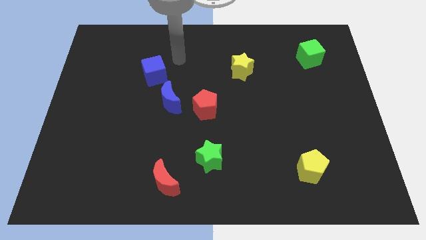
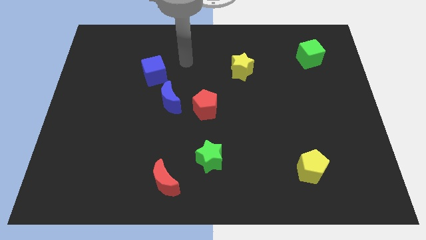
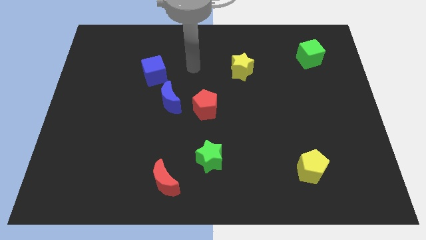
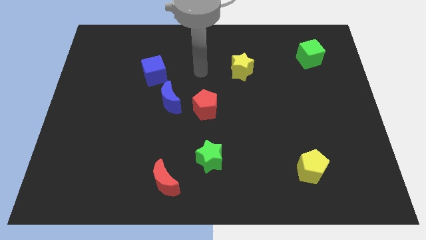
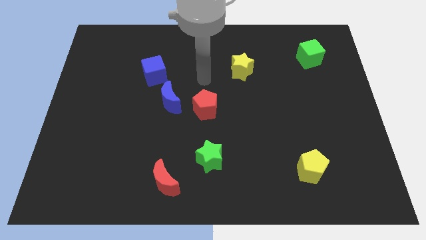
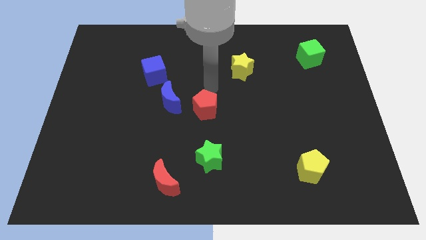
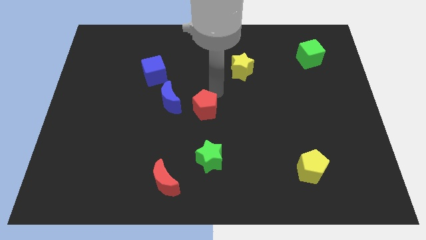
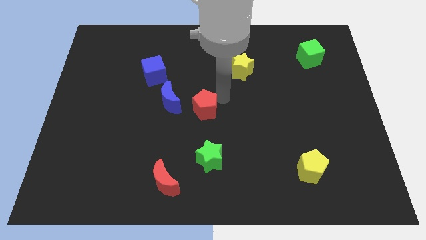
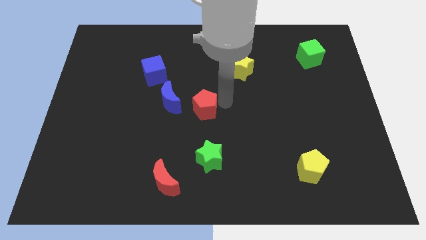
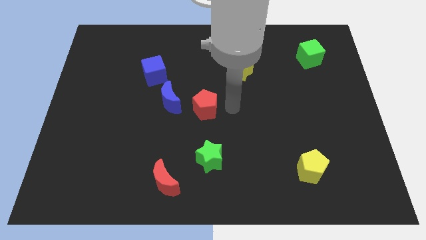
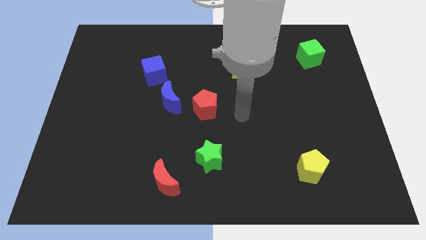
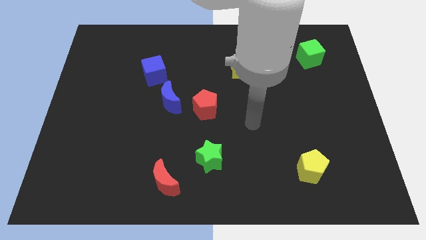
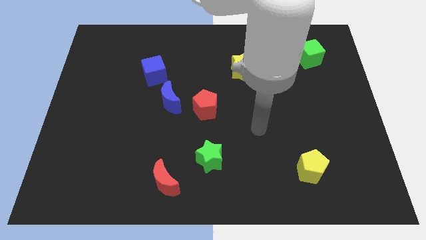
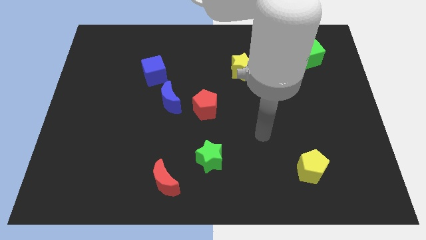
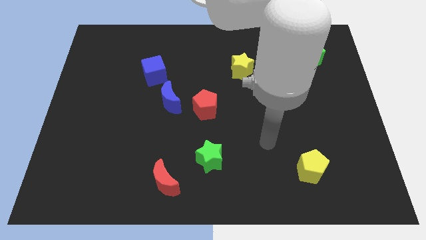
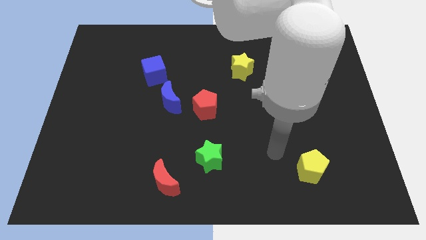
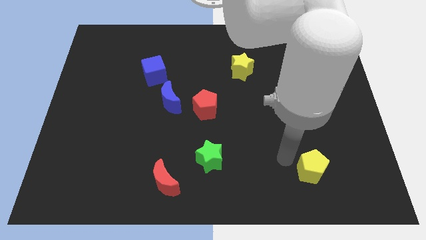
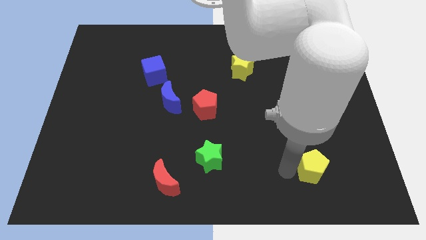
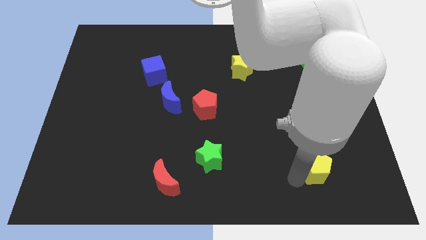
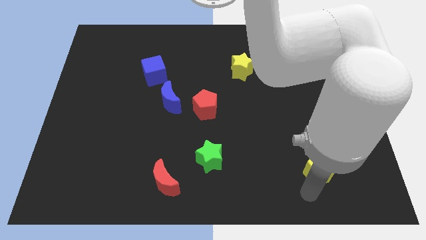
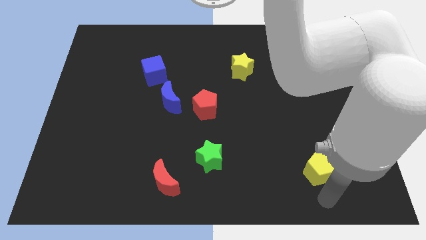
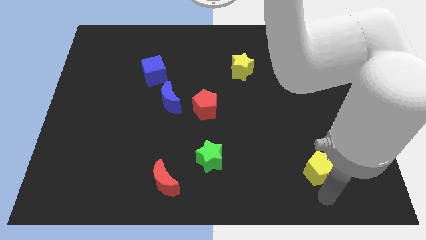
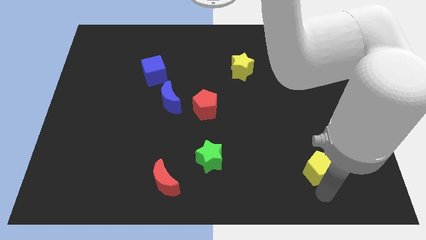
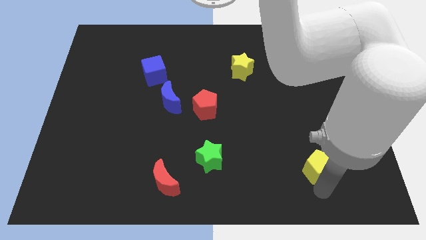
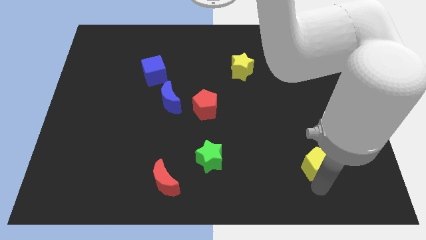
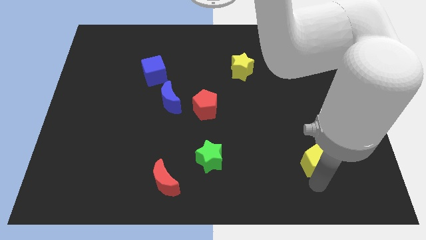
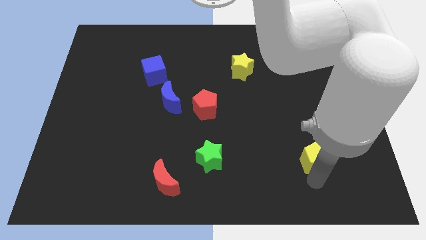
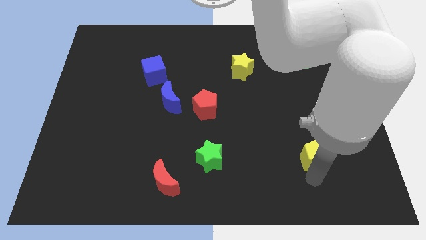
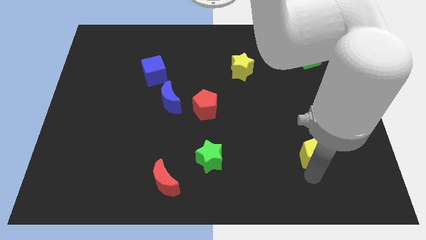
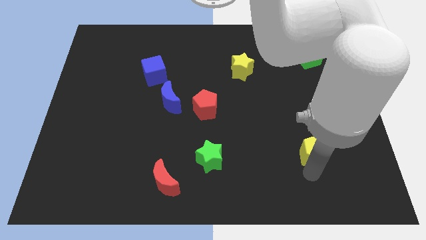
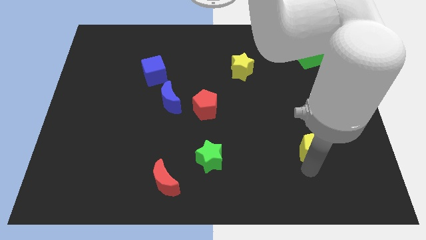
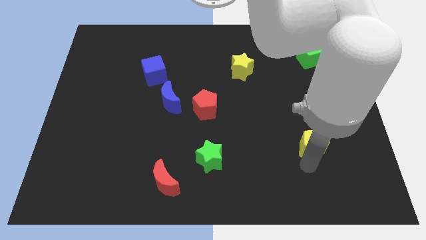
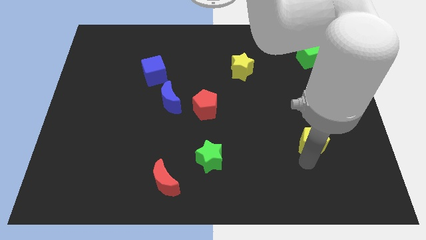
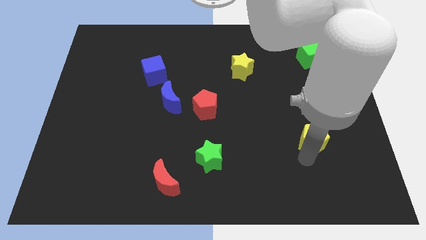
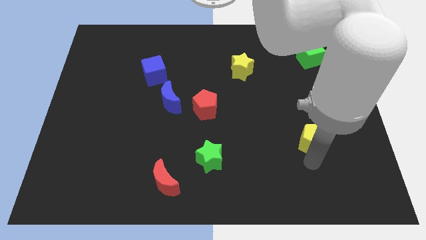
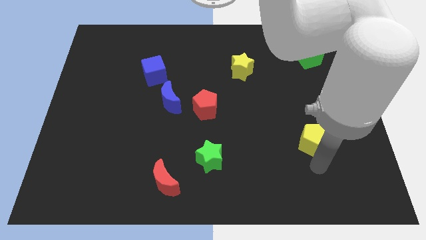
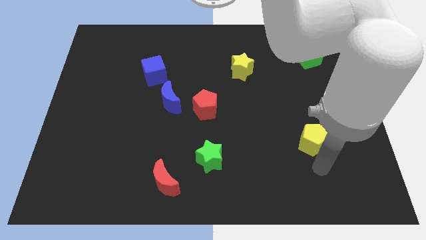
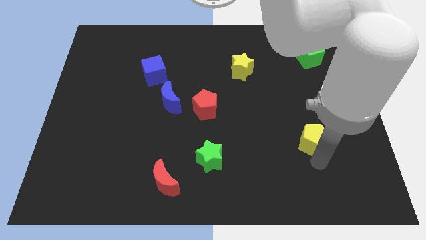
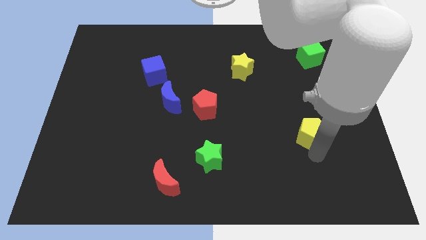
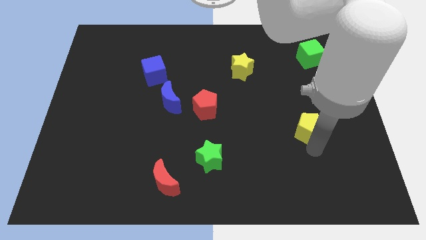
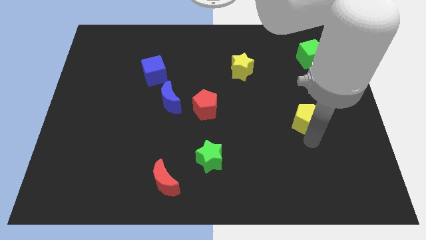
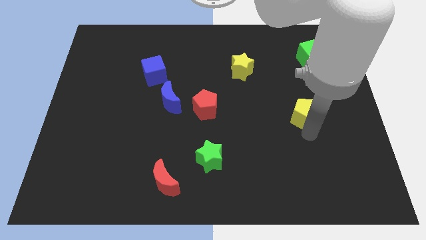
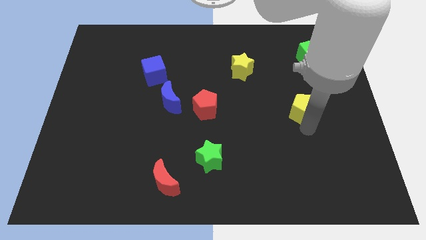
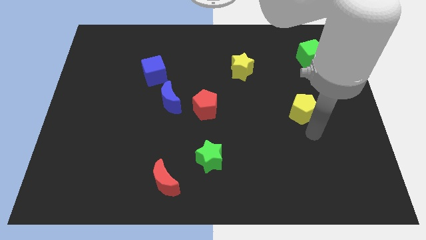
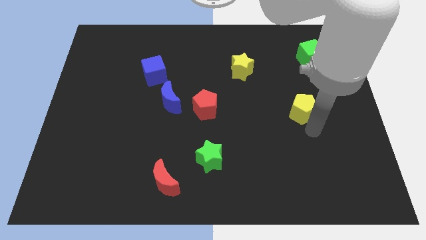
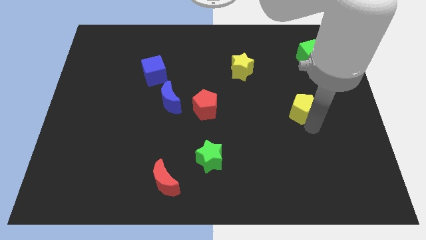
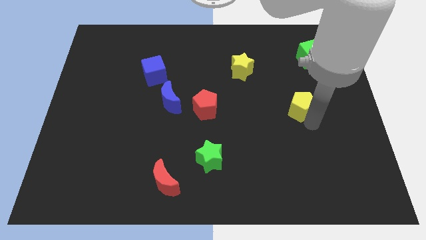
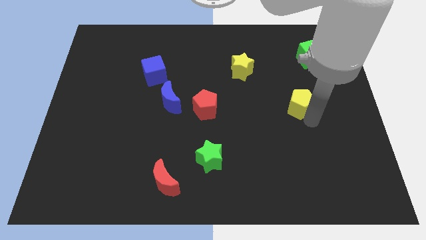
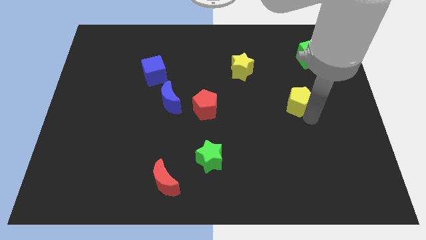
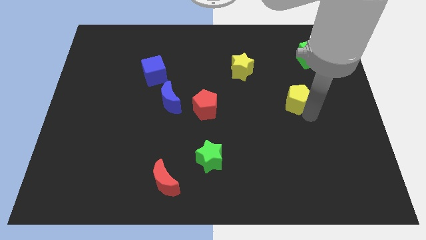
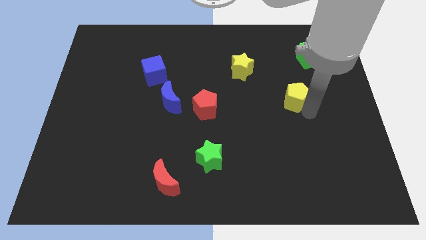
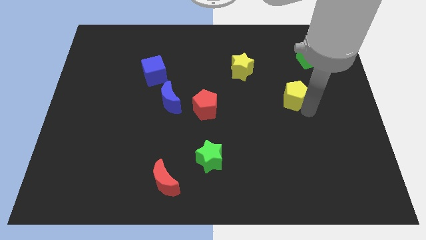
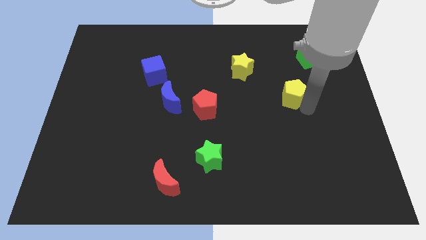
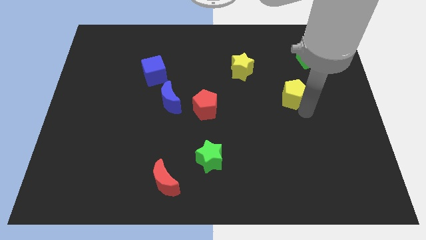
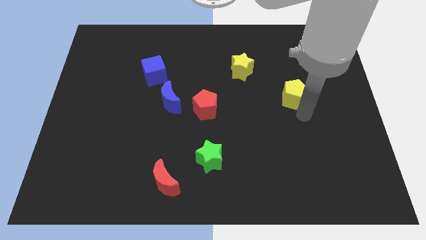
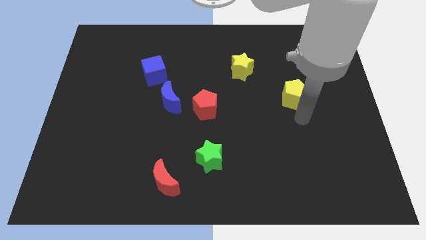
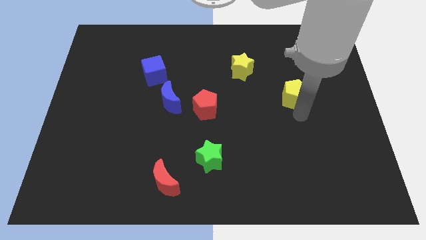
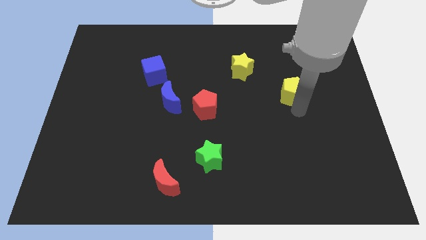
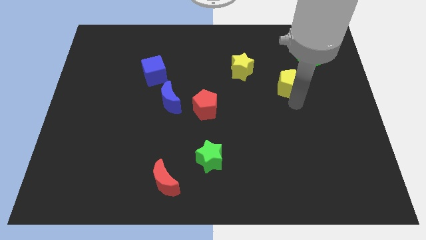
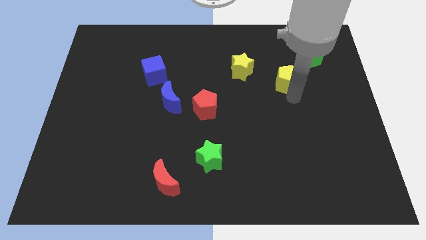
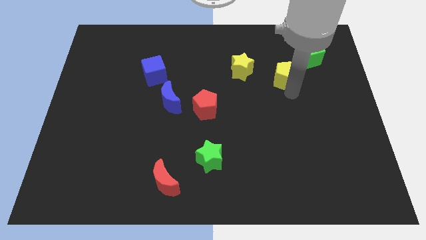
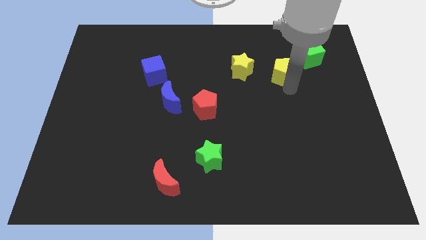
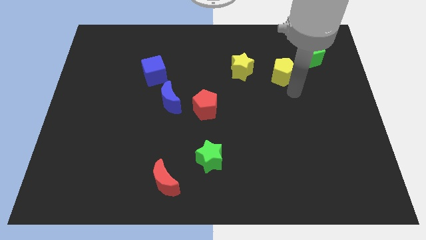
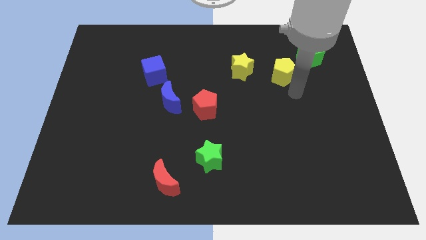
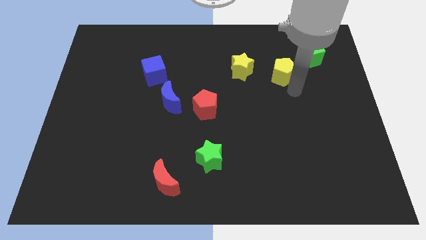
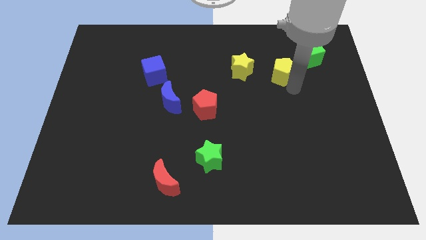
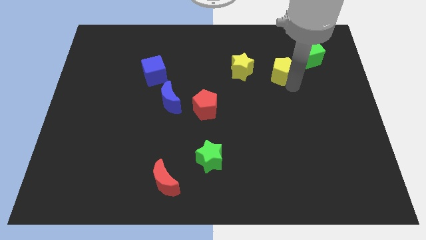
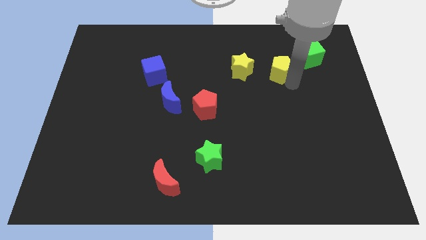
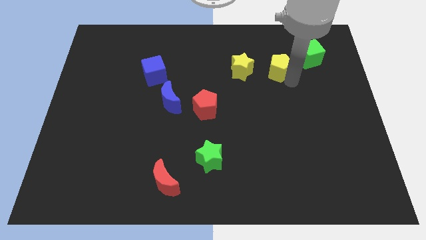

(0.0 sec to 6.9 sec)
move the yellow pentagon just left of the green cube

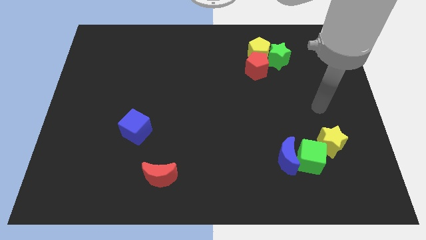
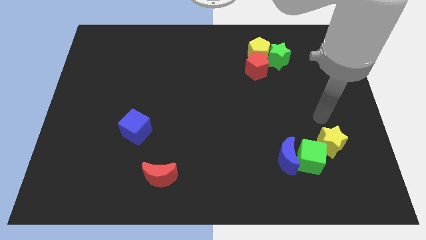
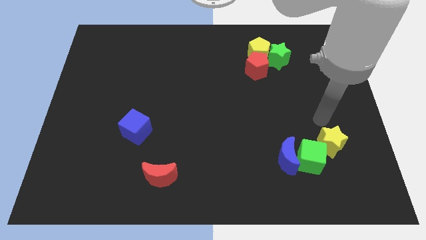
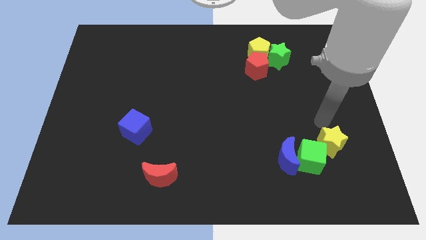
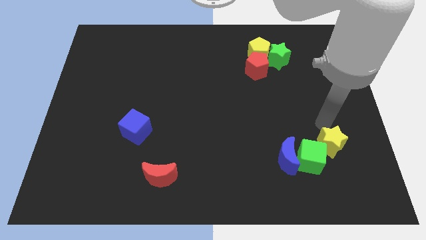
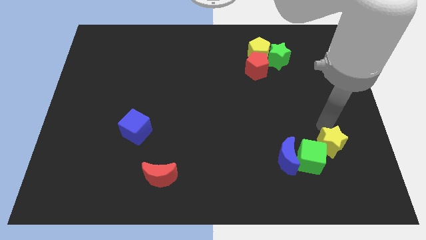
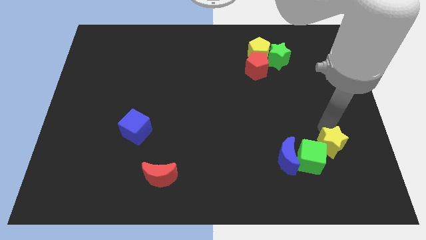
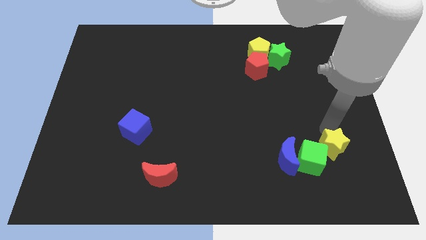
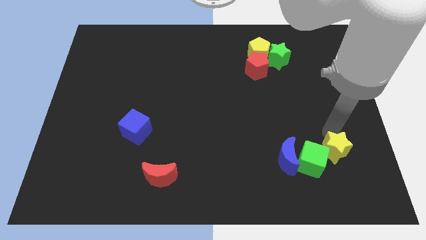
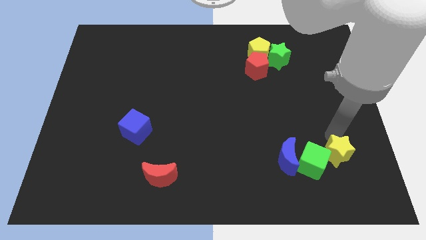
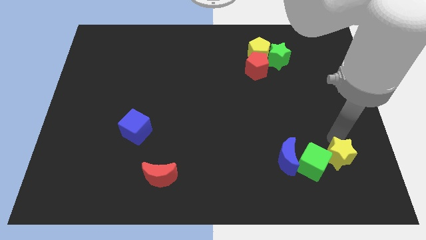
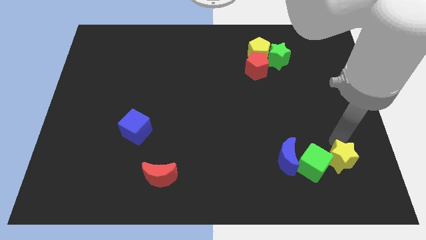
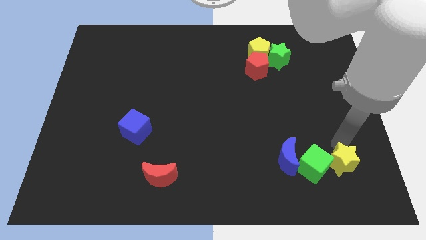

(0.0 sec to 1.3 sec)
slide the yellow star to the bottom right side of the green cube
